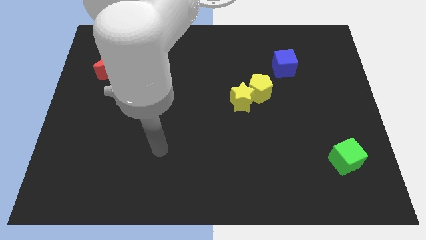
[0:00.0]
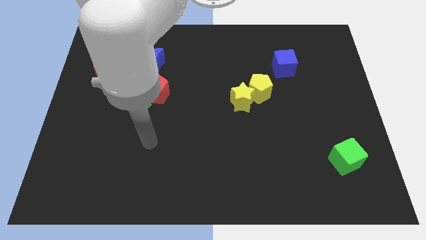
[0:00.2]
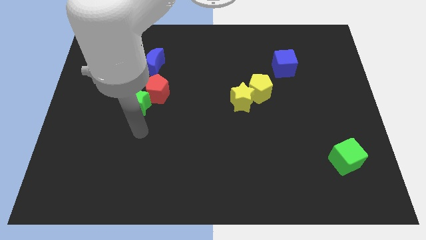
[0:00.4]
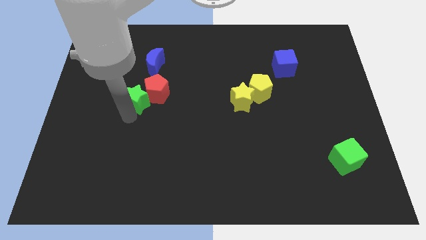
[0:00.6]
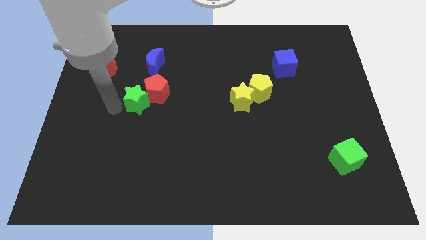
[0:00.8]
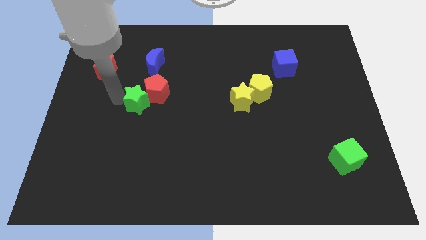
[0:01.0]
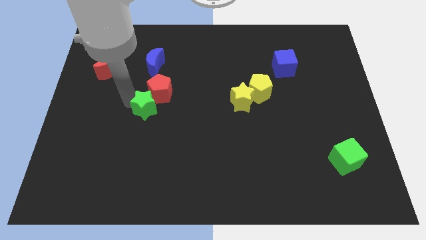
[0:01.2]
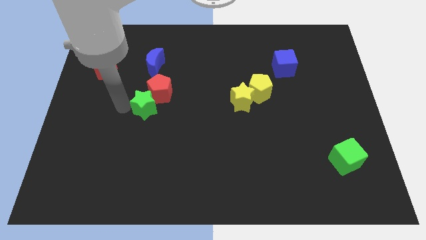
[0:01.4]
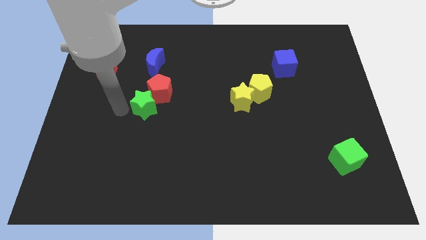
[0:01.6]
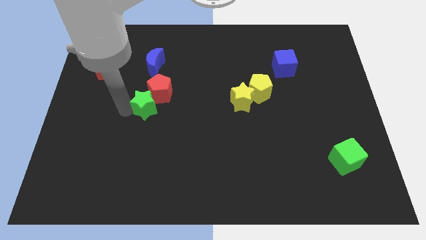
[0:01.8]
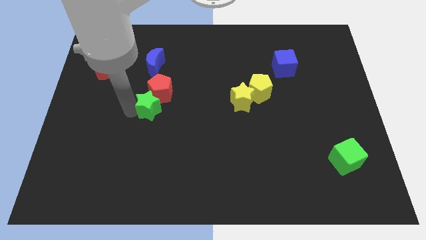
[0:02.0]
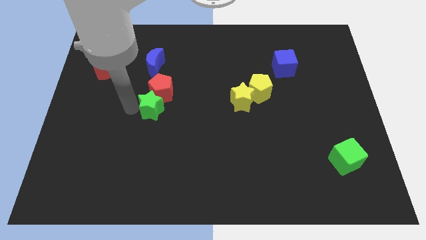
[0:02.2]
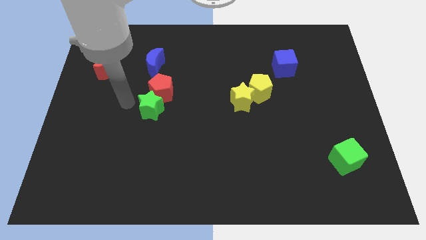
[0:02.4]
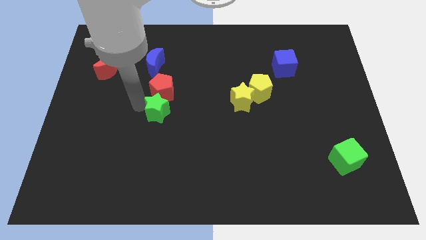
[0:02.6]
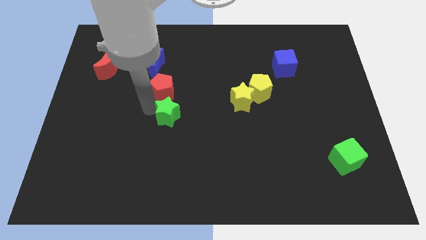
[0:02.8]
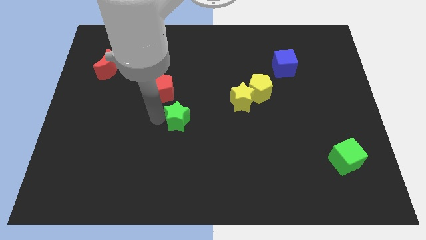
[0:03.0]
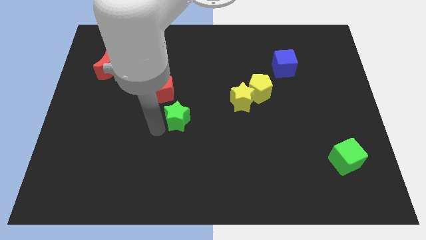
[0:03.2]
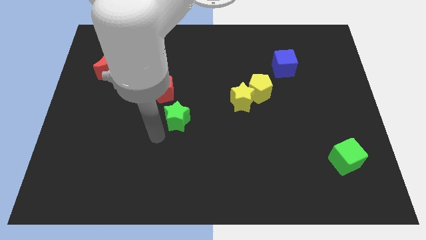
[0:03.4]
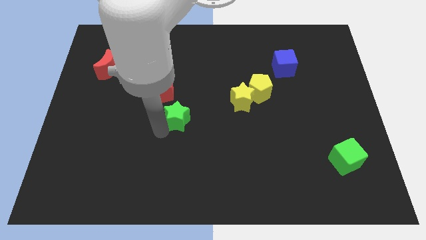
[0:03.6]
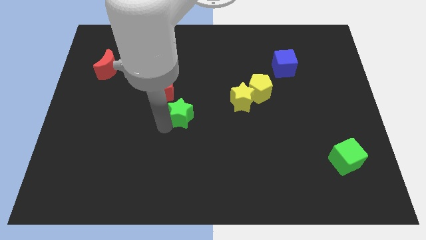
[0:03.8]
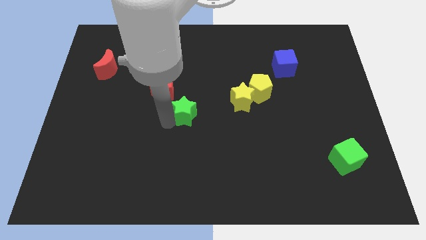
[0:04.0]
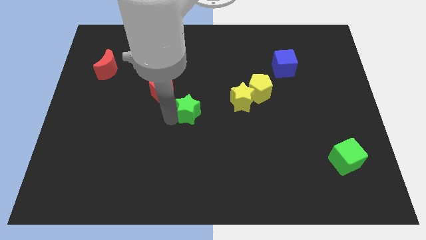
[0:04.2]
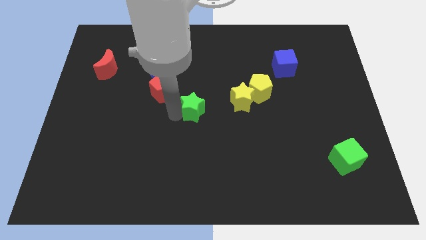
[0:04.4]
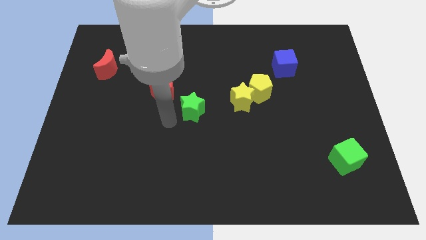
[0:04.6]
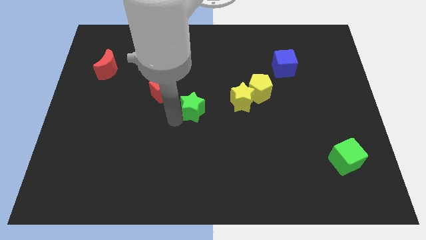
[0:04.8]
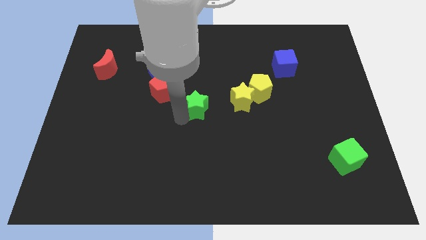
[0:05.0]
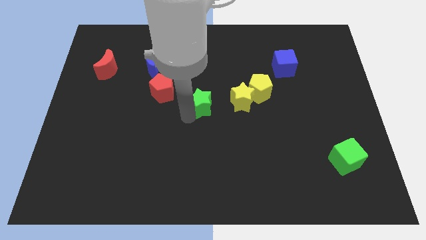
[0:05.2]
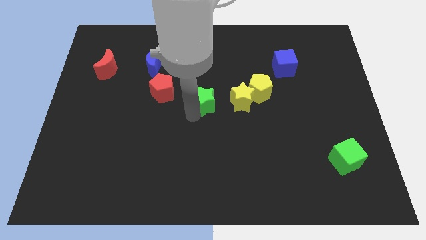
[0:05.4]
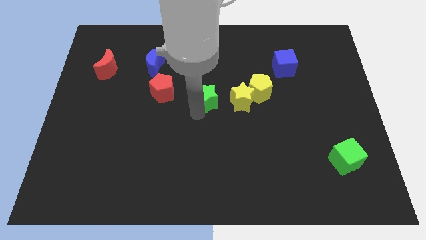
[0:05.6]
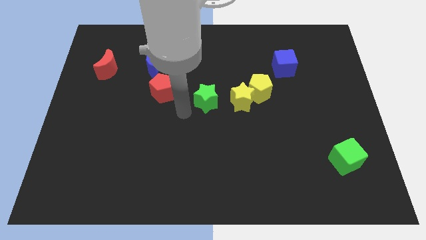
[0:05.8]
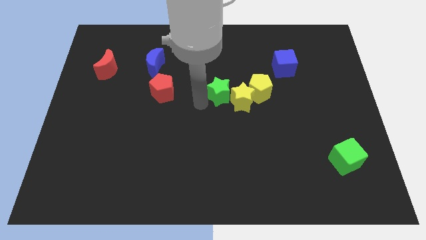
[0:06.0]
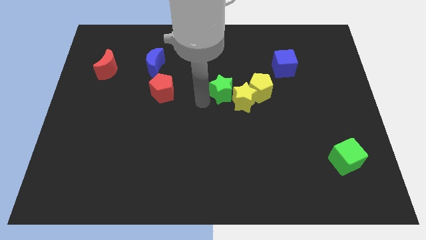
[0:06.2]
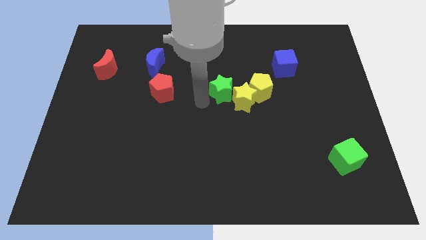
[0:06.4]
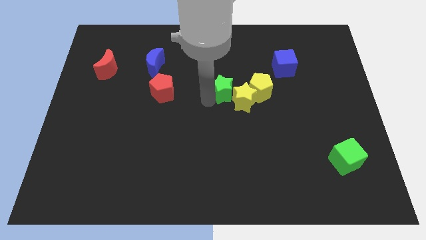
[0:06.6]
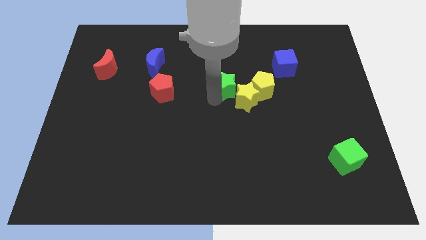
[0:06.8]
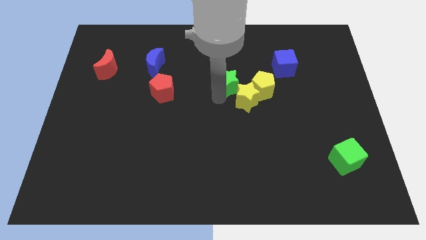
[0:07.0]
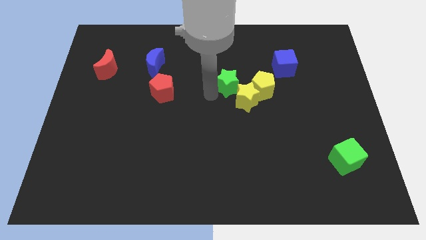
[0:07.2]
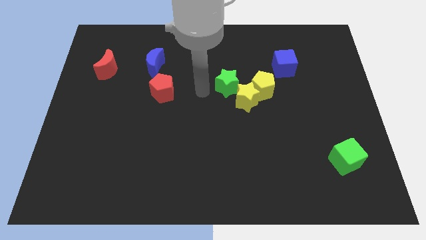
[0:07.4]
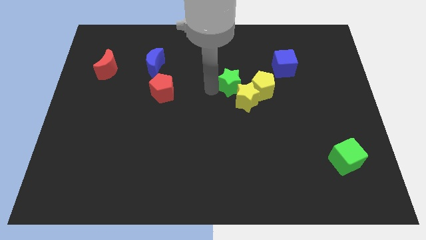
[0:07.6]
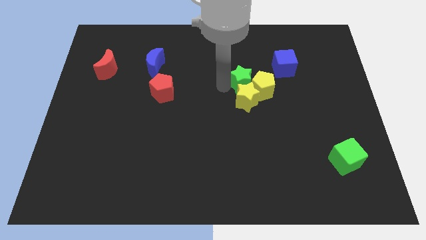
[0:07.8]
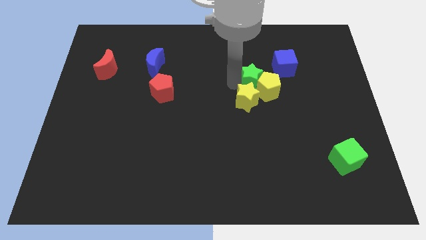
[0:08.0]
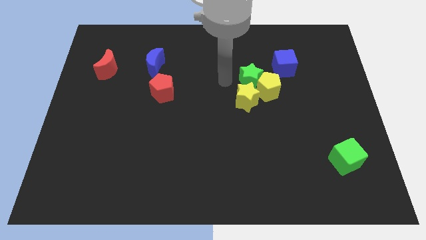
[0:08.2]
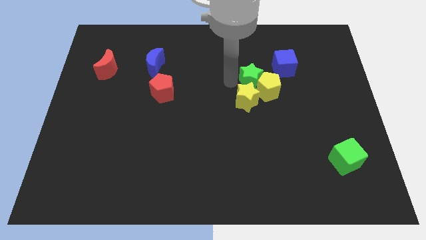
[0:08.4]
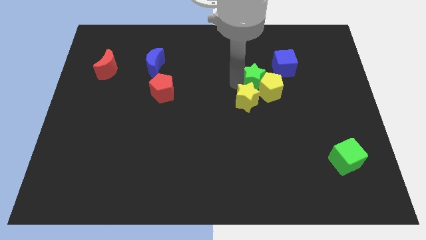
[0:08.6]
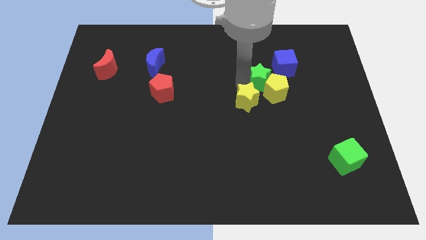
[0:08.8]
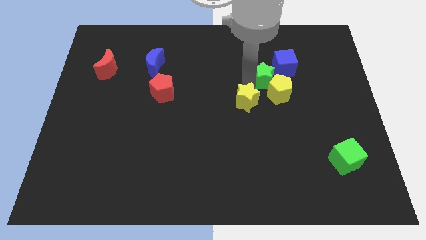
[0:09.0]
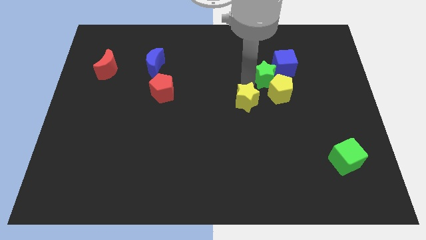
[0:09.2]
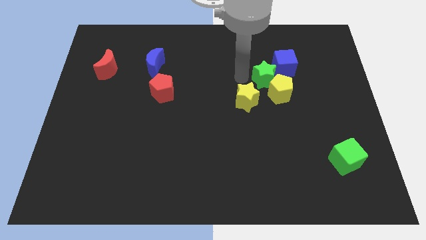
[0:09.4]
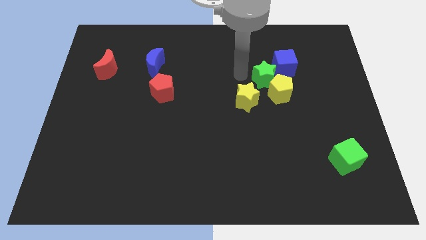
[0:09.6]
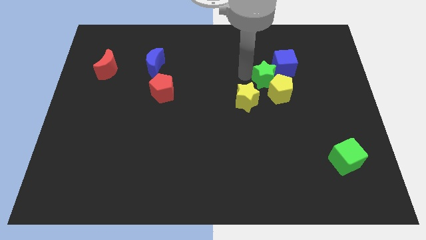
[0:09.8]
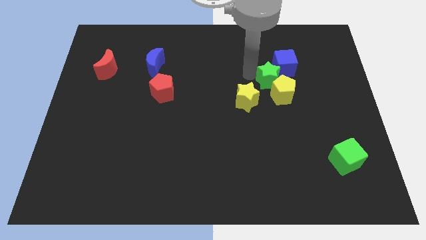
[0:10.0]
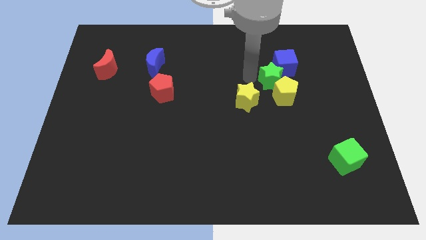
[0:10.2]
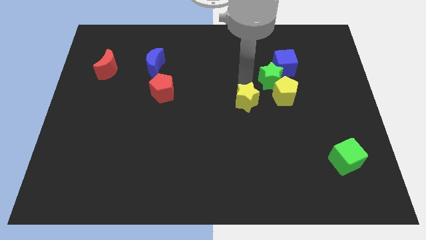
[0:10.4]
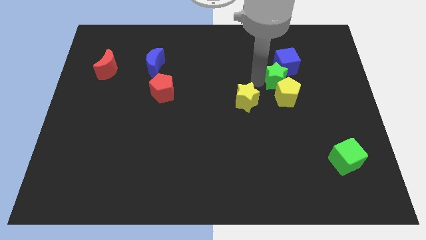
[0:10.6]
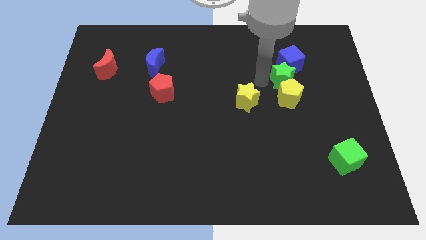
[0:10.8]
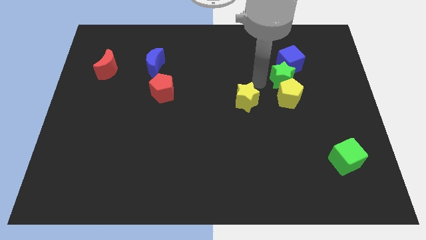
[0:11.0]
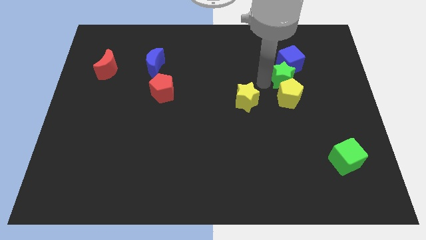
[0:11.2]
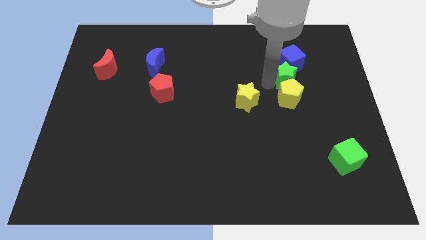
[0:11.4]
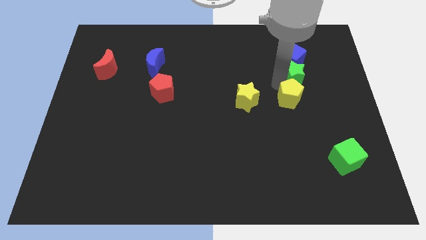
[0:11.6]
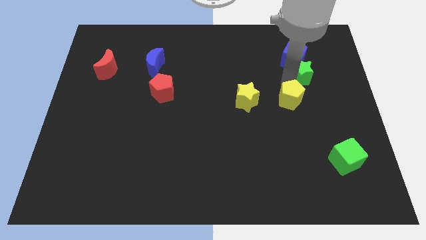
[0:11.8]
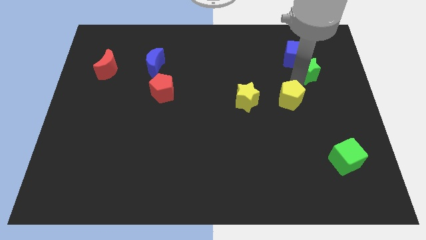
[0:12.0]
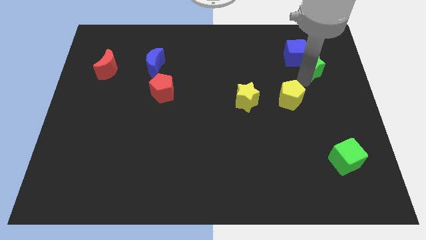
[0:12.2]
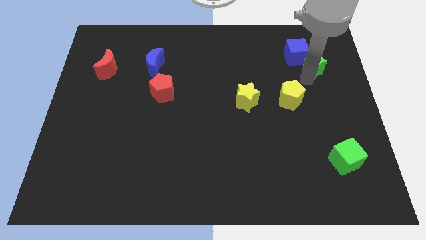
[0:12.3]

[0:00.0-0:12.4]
push the green star to the right of the blue cube

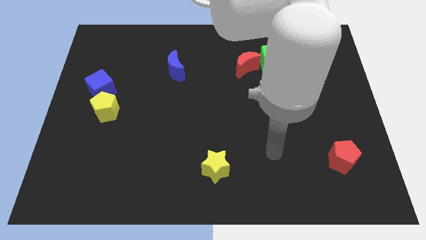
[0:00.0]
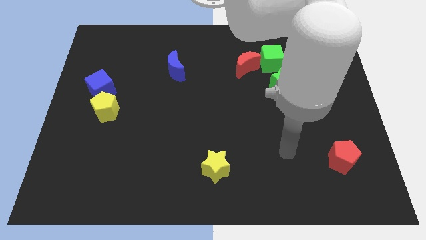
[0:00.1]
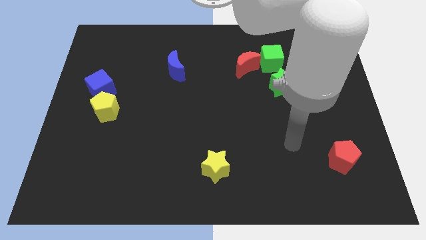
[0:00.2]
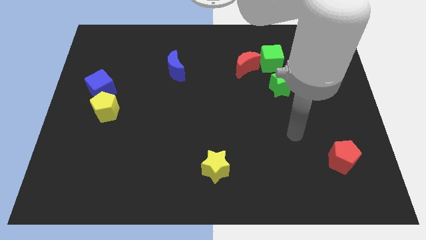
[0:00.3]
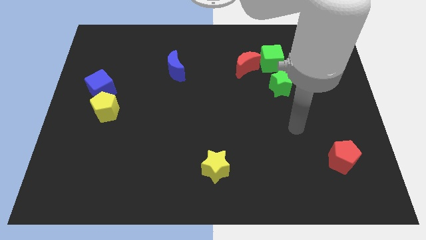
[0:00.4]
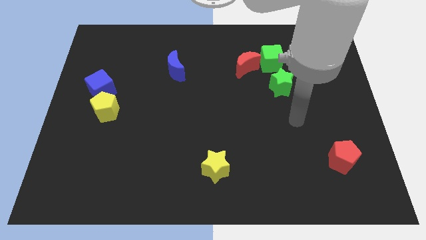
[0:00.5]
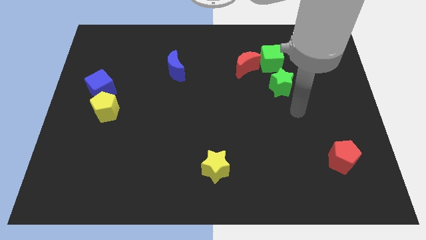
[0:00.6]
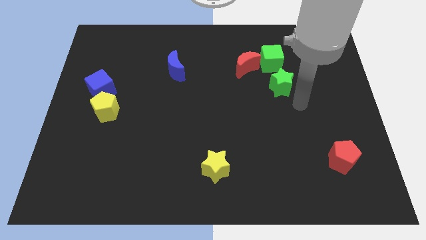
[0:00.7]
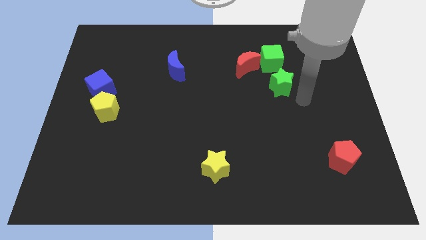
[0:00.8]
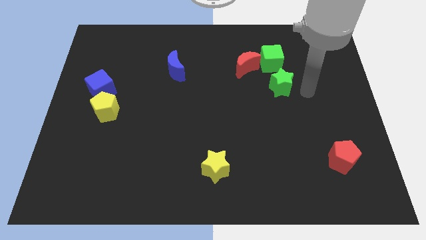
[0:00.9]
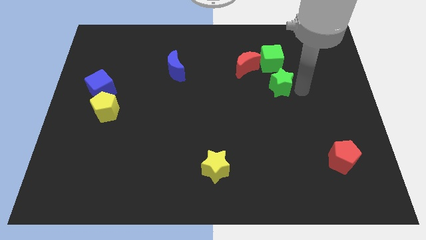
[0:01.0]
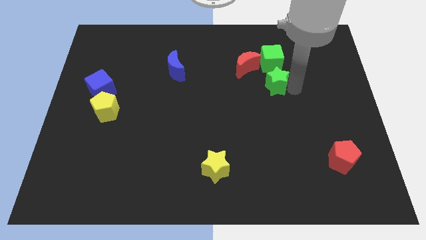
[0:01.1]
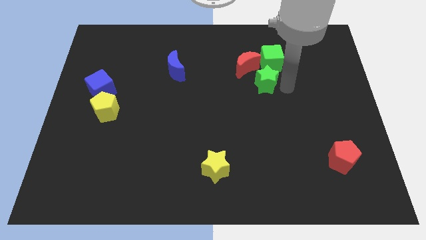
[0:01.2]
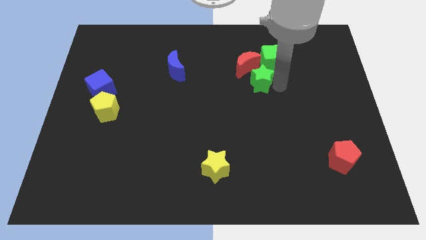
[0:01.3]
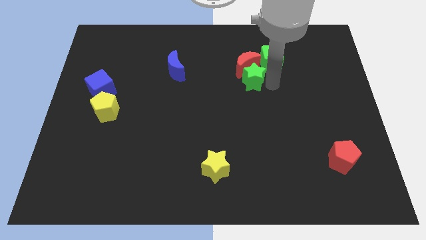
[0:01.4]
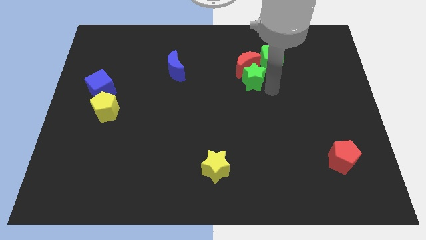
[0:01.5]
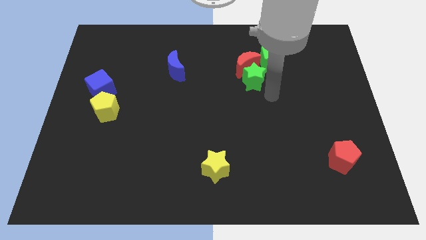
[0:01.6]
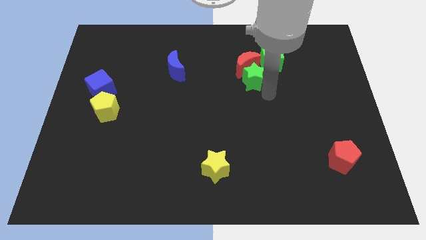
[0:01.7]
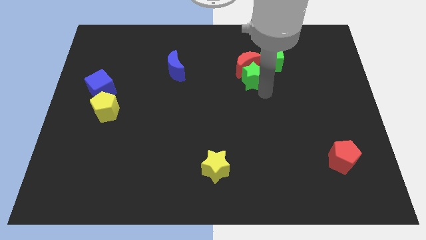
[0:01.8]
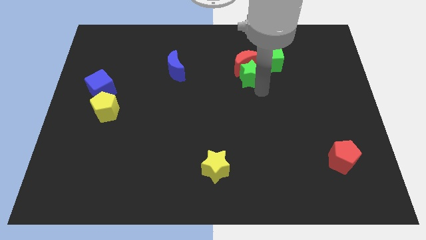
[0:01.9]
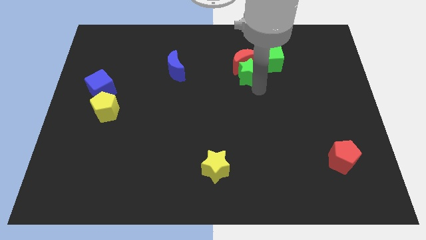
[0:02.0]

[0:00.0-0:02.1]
slide the green star just left of the green cube
